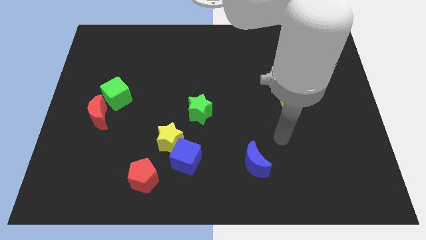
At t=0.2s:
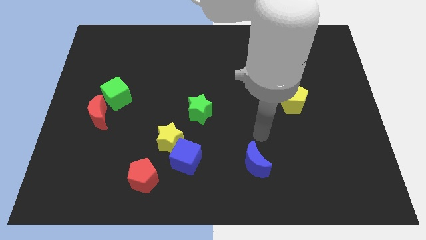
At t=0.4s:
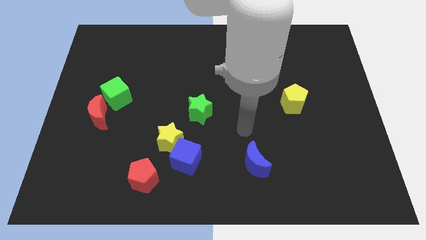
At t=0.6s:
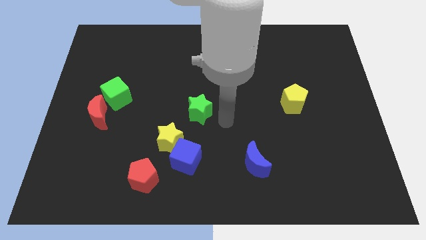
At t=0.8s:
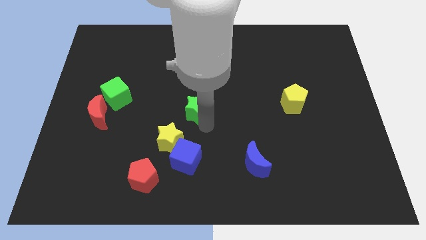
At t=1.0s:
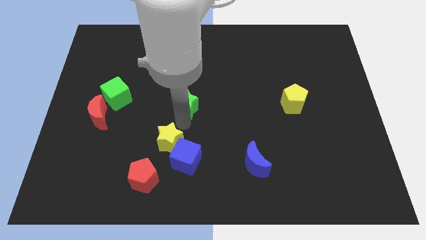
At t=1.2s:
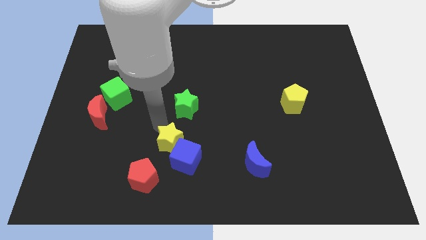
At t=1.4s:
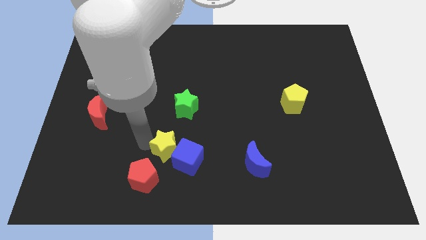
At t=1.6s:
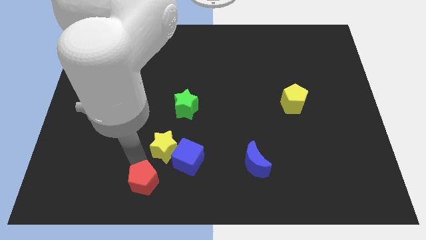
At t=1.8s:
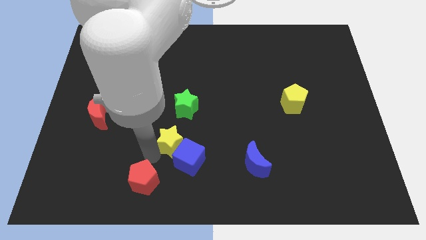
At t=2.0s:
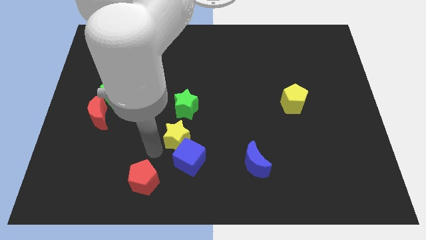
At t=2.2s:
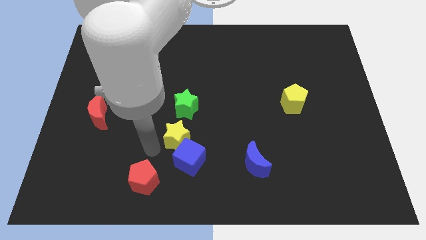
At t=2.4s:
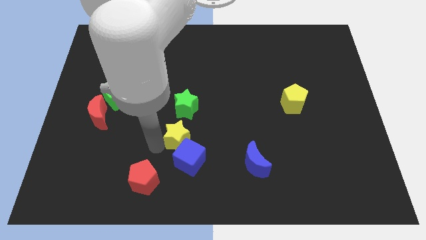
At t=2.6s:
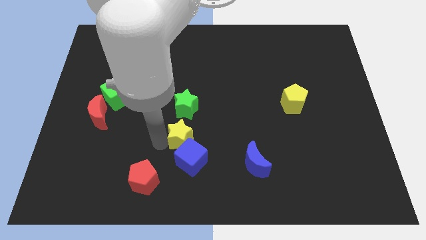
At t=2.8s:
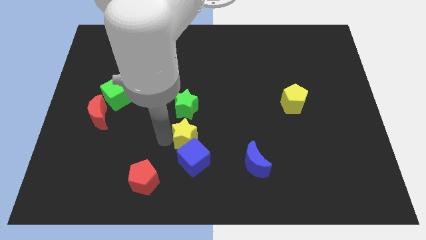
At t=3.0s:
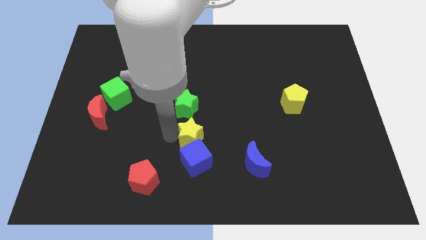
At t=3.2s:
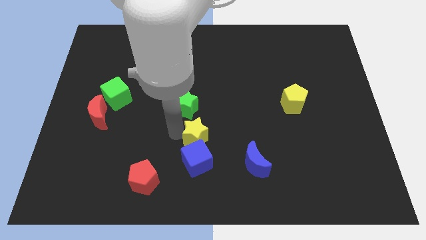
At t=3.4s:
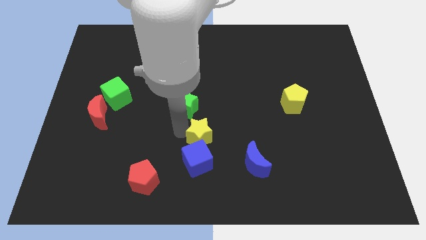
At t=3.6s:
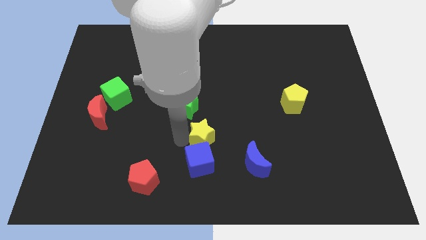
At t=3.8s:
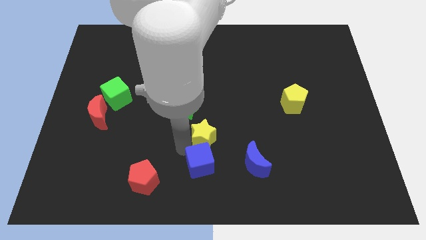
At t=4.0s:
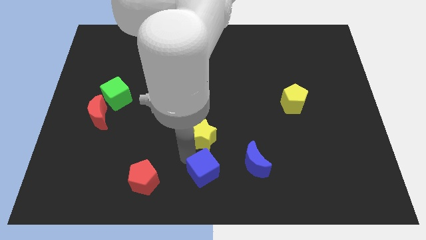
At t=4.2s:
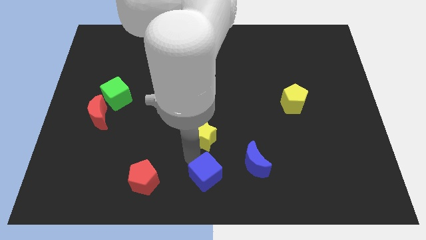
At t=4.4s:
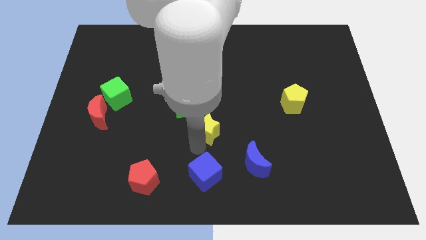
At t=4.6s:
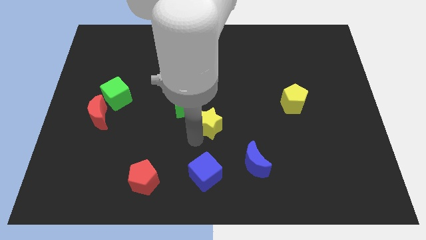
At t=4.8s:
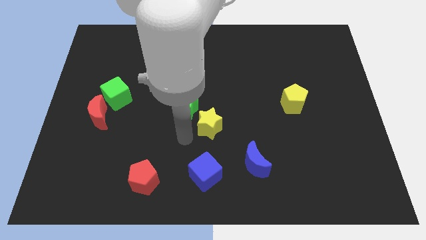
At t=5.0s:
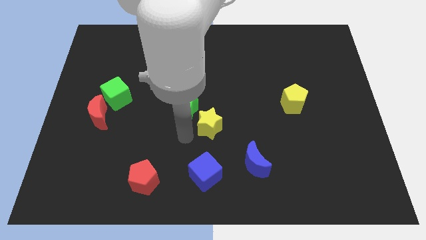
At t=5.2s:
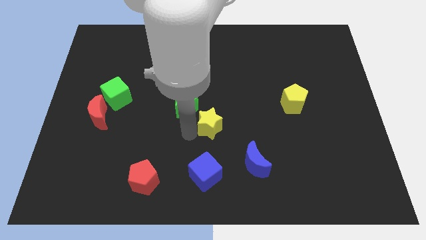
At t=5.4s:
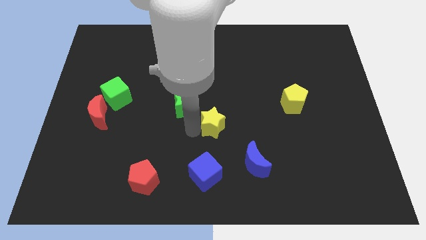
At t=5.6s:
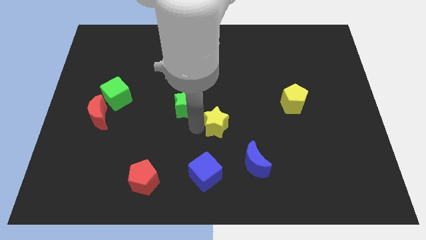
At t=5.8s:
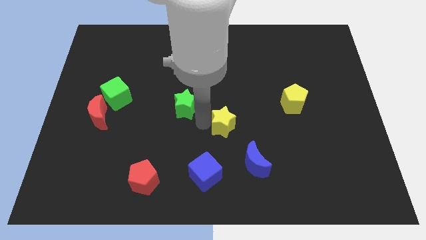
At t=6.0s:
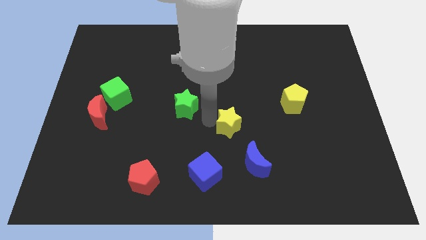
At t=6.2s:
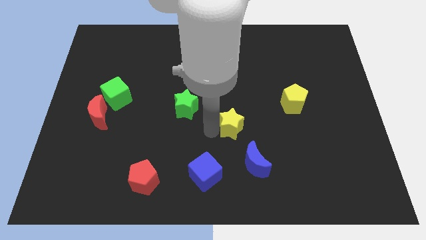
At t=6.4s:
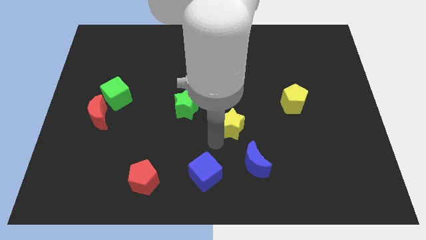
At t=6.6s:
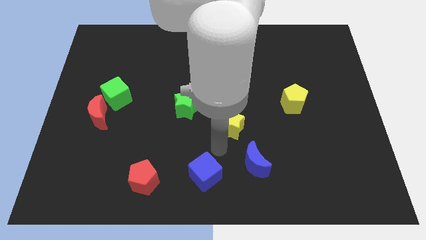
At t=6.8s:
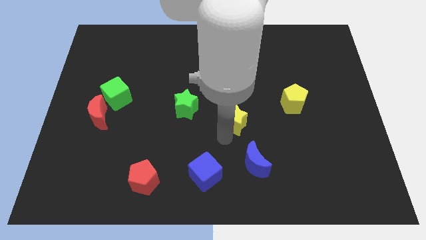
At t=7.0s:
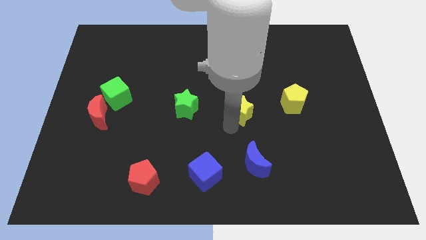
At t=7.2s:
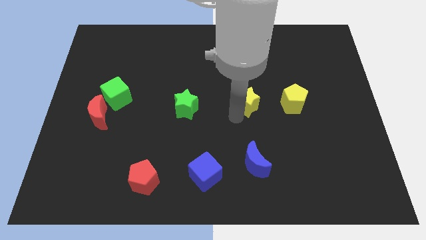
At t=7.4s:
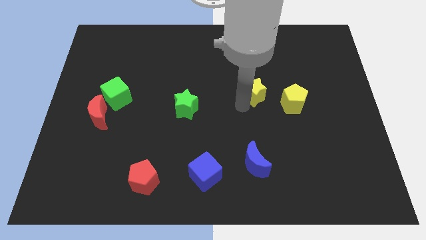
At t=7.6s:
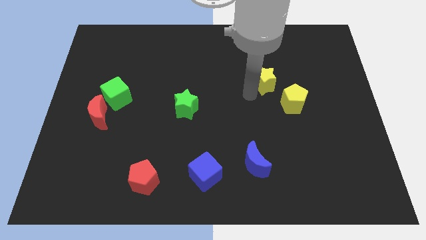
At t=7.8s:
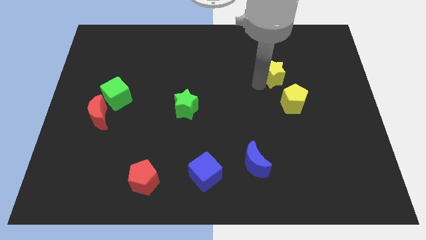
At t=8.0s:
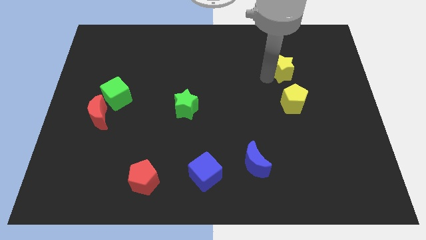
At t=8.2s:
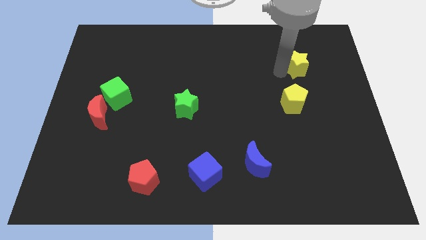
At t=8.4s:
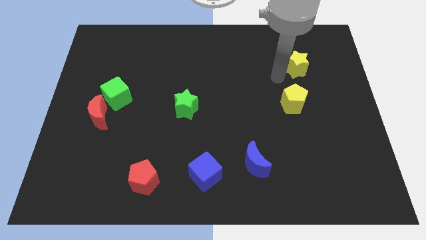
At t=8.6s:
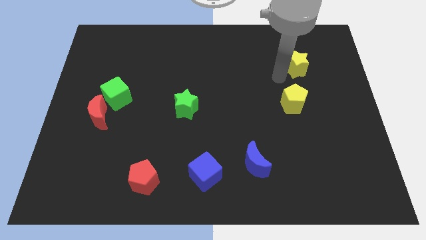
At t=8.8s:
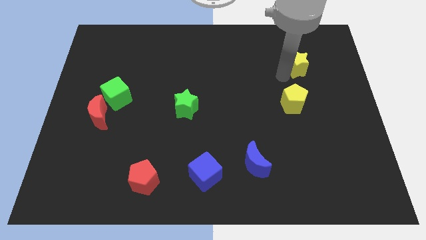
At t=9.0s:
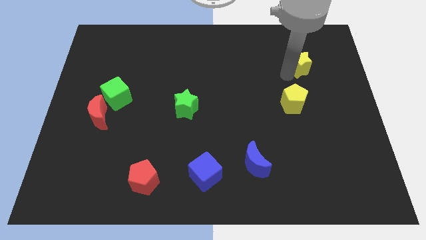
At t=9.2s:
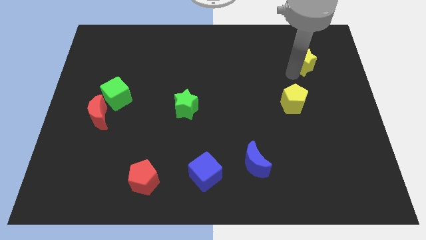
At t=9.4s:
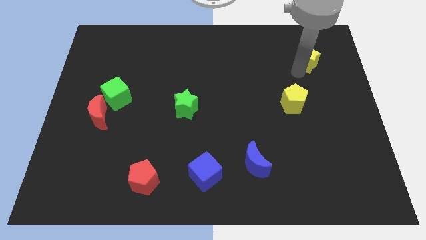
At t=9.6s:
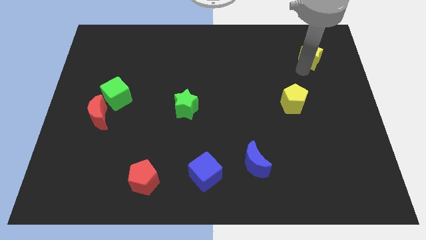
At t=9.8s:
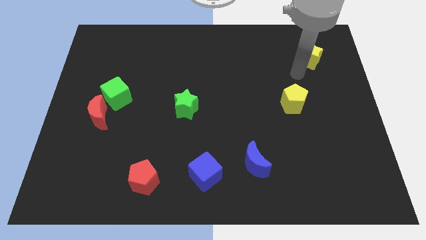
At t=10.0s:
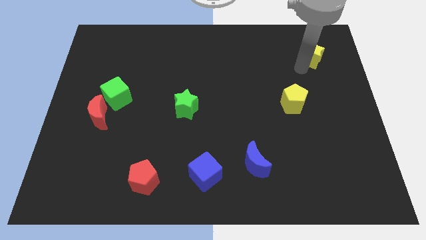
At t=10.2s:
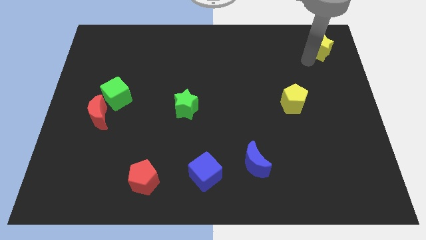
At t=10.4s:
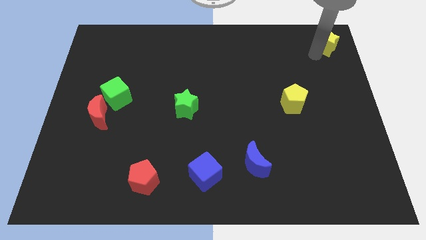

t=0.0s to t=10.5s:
move the yellow star to the top right

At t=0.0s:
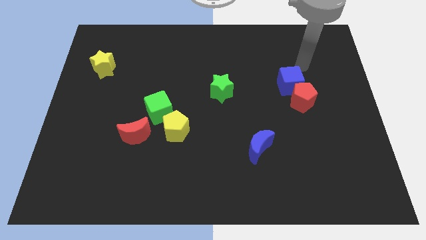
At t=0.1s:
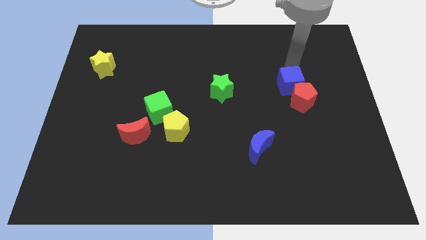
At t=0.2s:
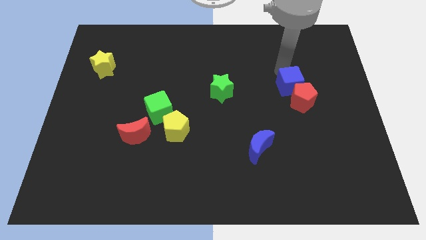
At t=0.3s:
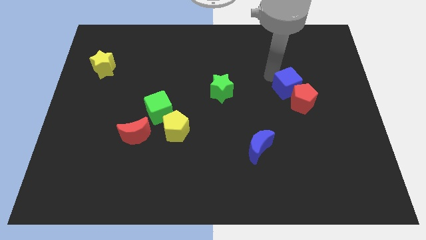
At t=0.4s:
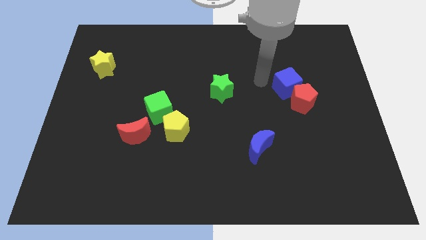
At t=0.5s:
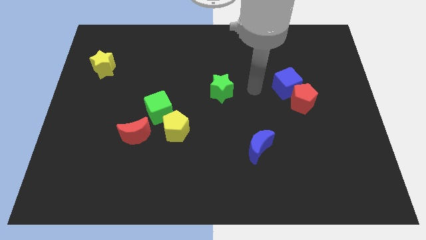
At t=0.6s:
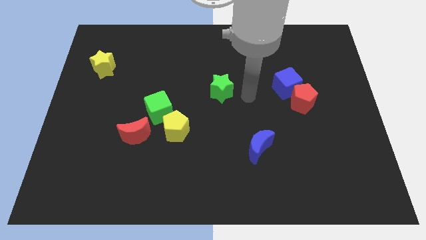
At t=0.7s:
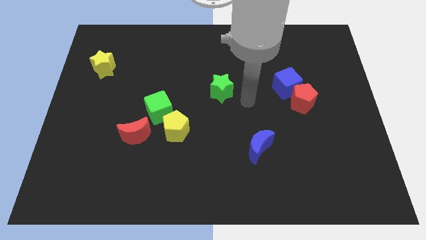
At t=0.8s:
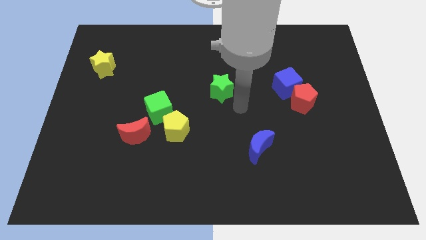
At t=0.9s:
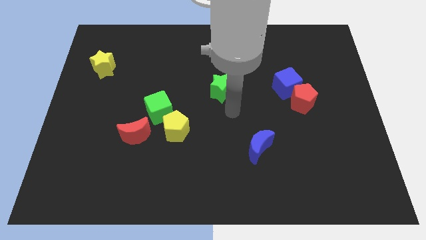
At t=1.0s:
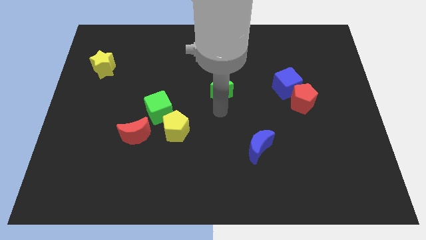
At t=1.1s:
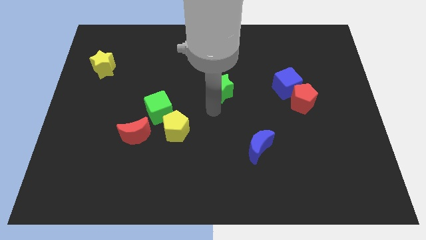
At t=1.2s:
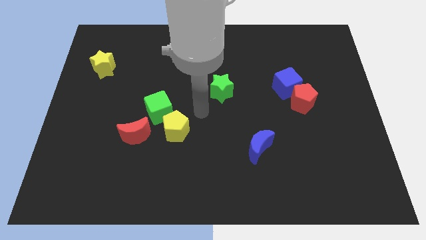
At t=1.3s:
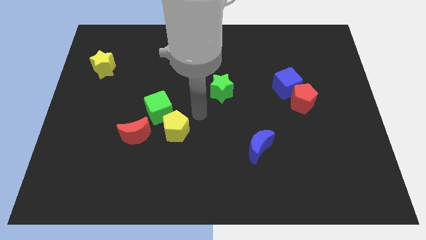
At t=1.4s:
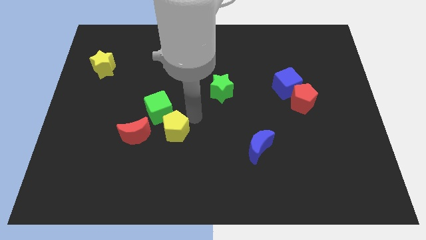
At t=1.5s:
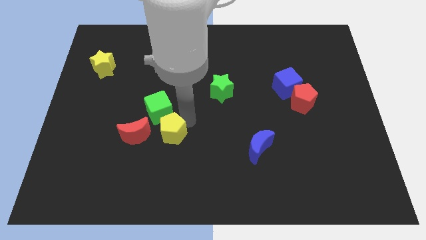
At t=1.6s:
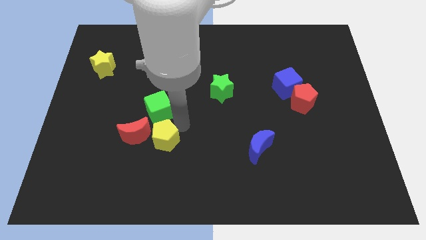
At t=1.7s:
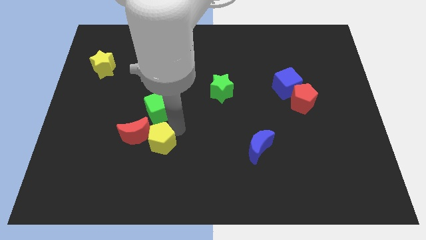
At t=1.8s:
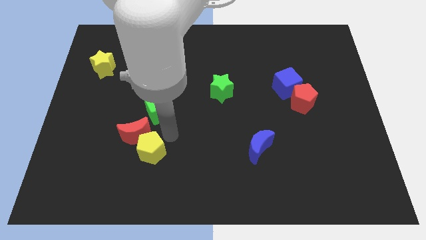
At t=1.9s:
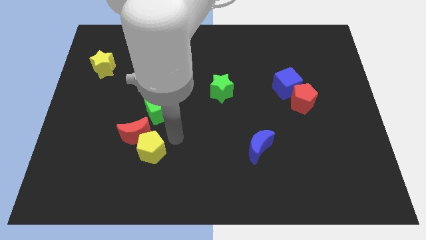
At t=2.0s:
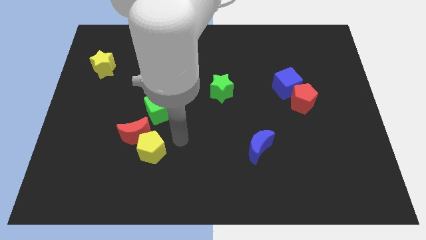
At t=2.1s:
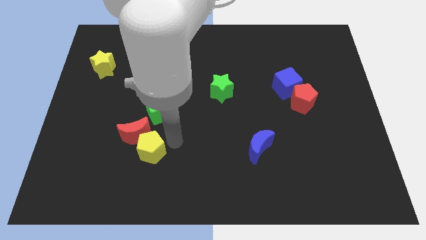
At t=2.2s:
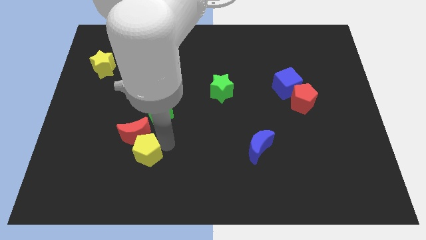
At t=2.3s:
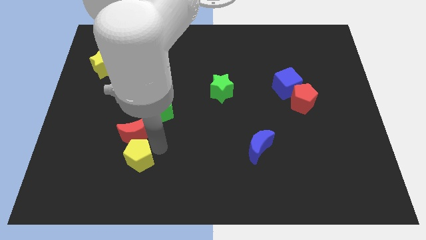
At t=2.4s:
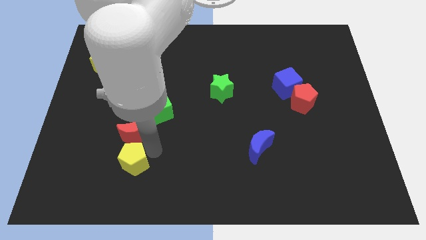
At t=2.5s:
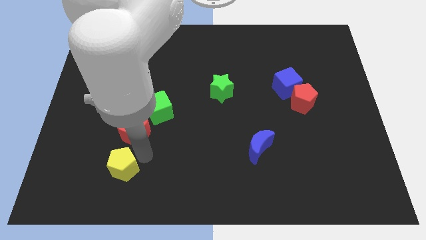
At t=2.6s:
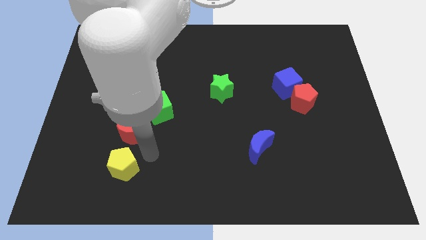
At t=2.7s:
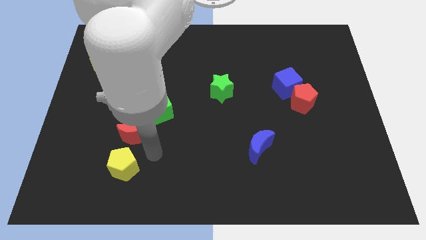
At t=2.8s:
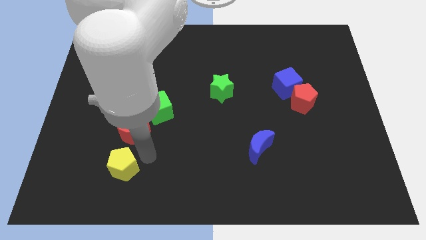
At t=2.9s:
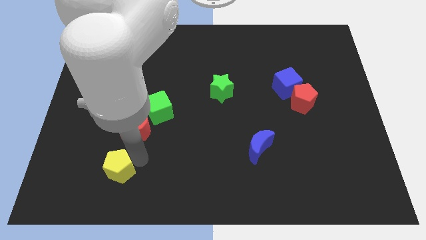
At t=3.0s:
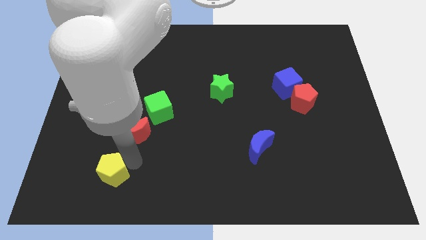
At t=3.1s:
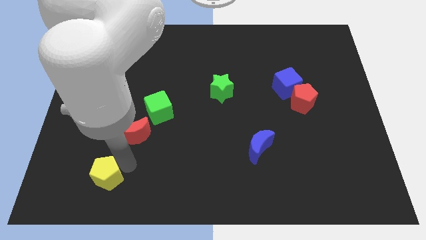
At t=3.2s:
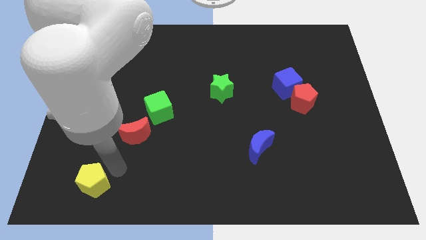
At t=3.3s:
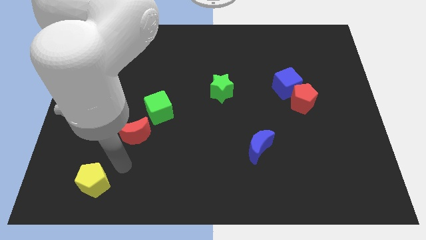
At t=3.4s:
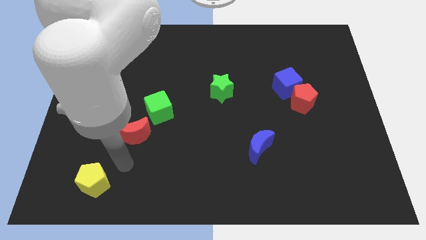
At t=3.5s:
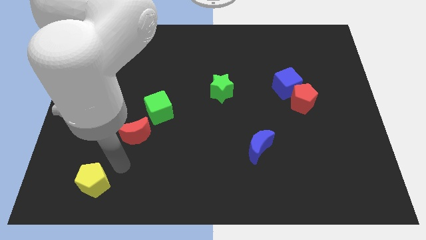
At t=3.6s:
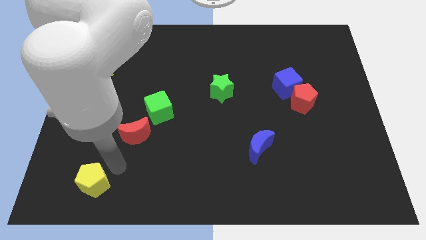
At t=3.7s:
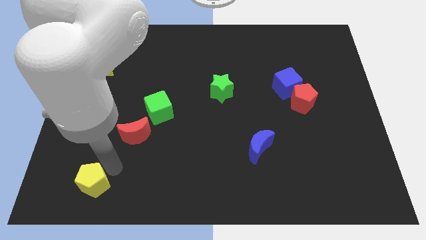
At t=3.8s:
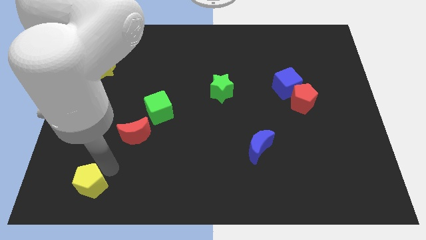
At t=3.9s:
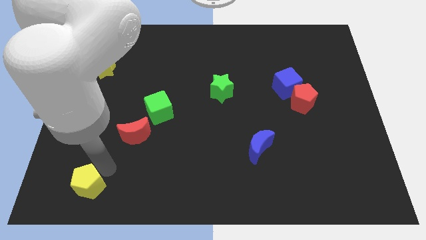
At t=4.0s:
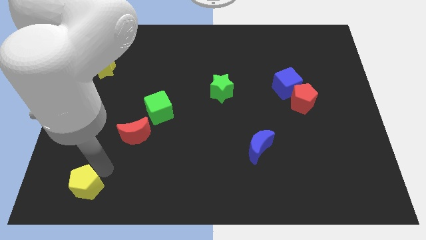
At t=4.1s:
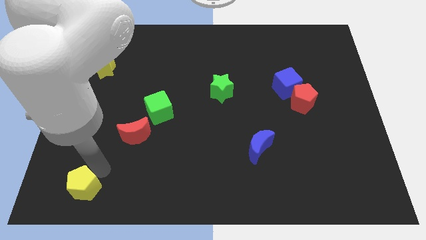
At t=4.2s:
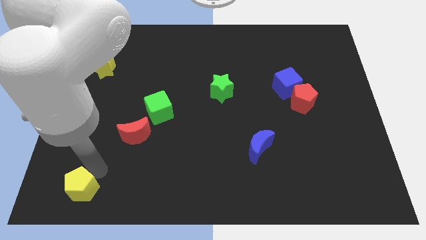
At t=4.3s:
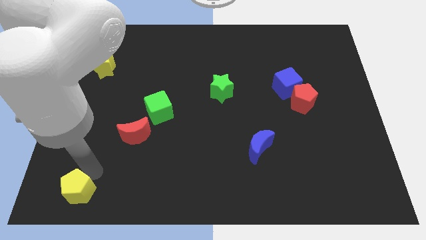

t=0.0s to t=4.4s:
put the yellow pentagon to the bottom left corner
